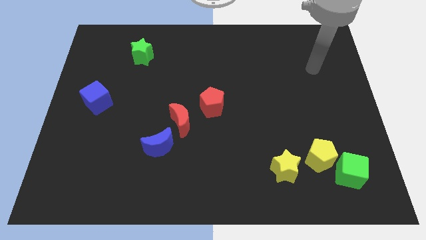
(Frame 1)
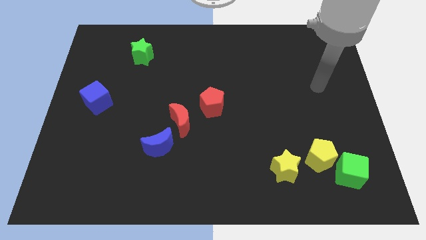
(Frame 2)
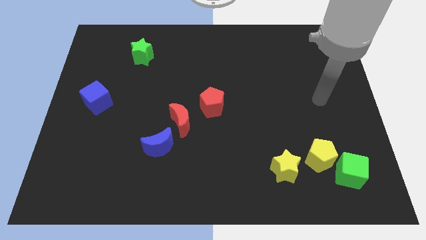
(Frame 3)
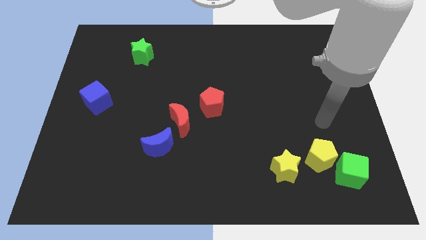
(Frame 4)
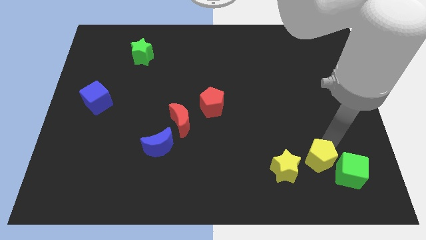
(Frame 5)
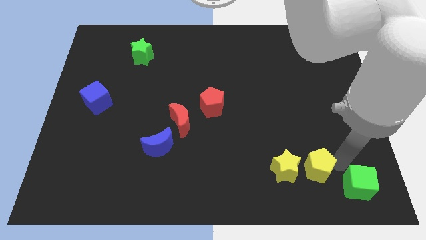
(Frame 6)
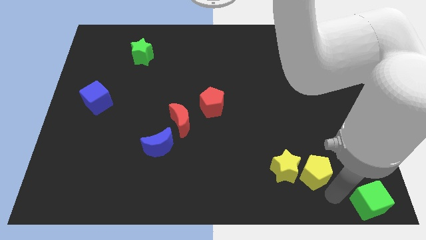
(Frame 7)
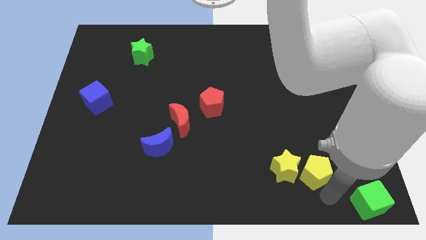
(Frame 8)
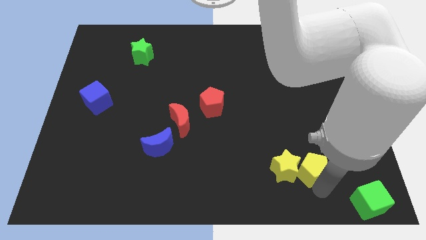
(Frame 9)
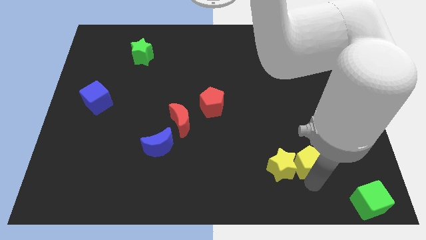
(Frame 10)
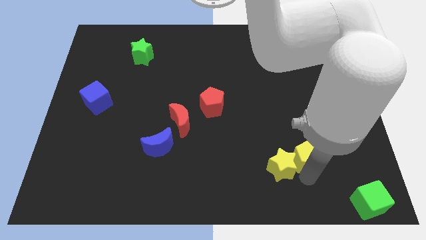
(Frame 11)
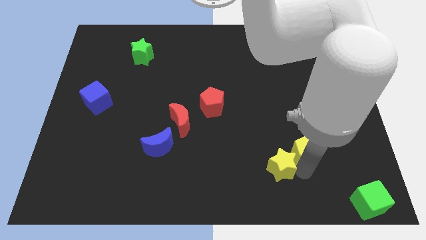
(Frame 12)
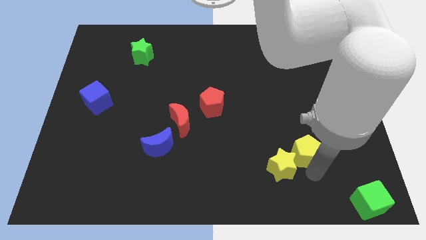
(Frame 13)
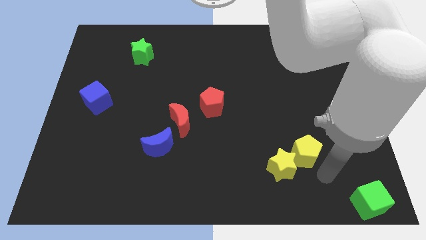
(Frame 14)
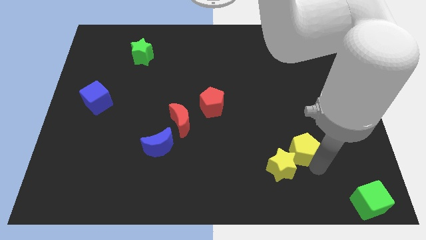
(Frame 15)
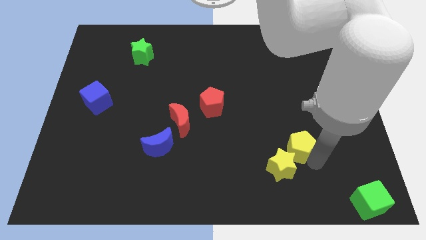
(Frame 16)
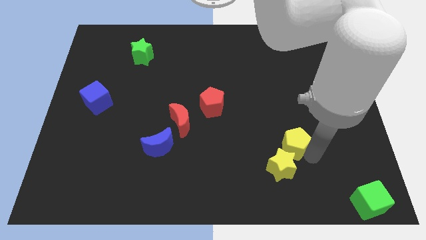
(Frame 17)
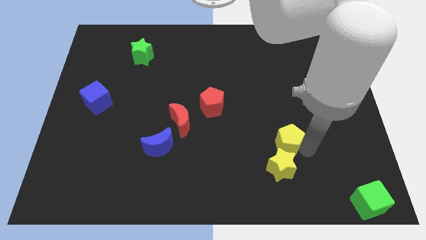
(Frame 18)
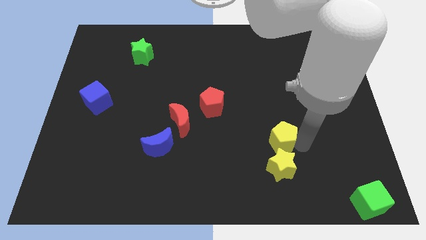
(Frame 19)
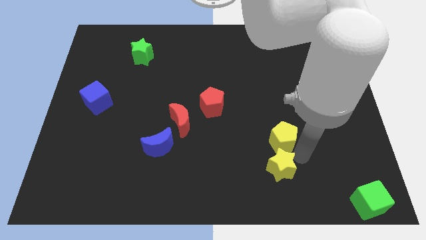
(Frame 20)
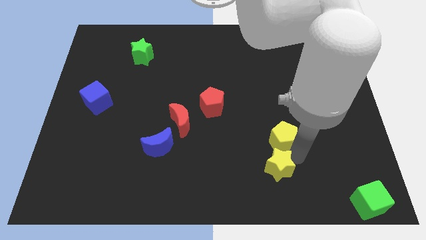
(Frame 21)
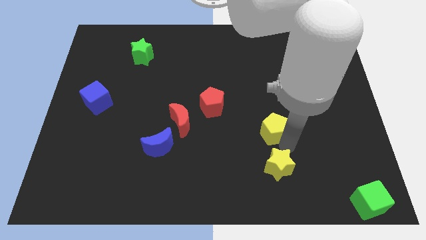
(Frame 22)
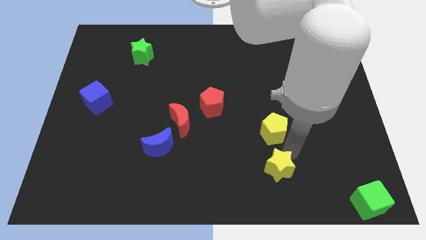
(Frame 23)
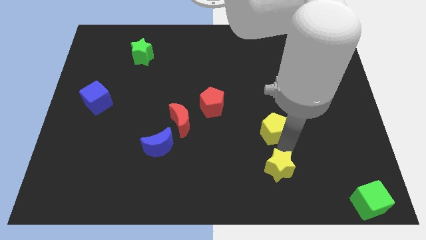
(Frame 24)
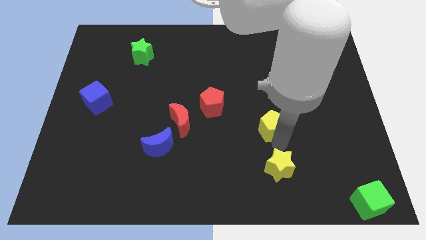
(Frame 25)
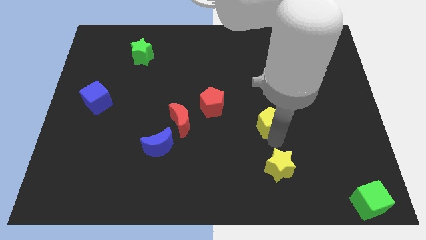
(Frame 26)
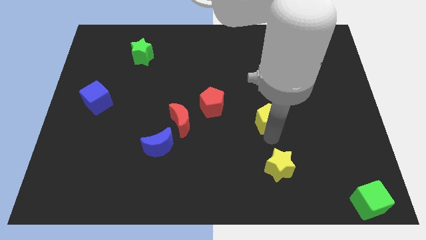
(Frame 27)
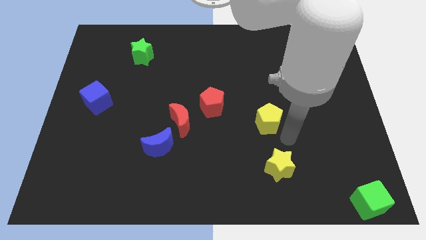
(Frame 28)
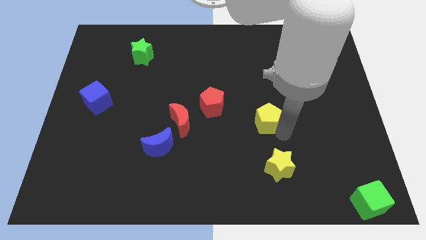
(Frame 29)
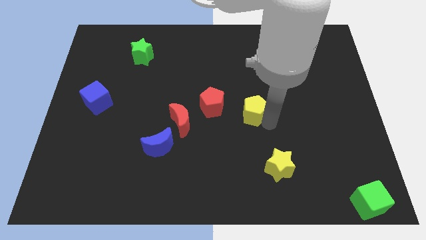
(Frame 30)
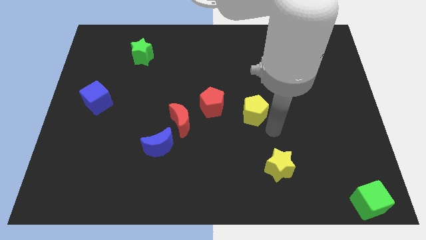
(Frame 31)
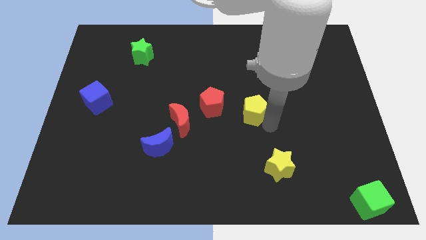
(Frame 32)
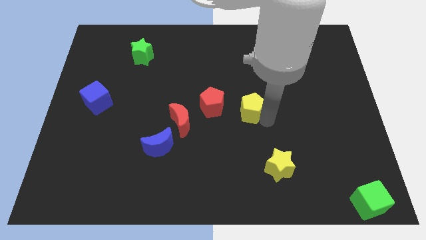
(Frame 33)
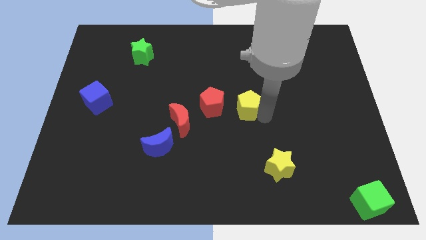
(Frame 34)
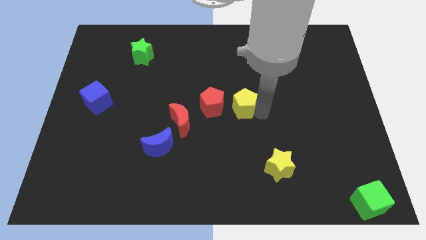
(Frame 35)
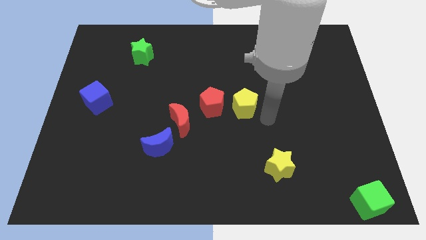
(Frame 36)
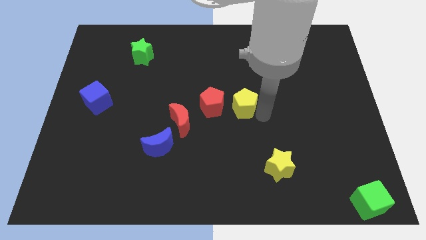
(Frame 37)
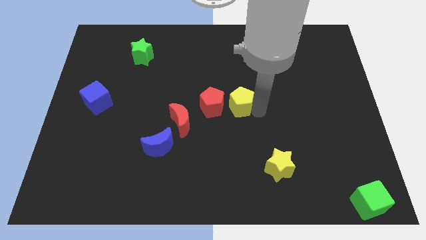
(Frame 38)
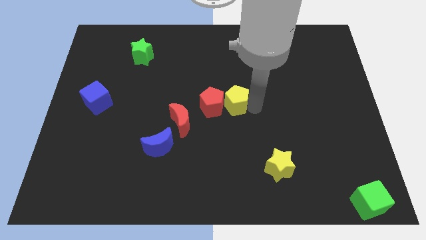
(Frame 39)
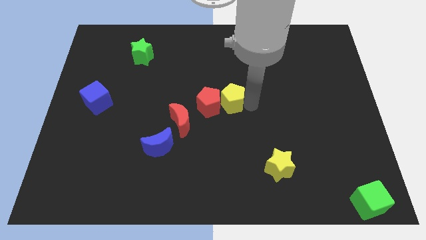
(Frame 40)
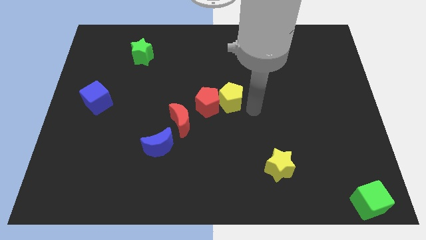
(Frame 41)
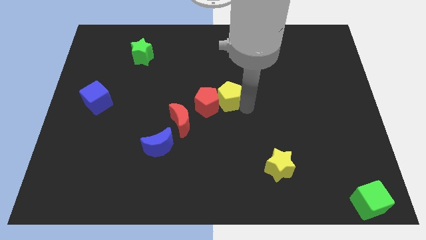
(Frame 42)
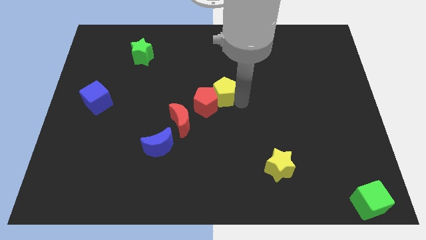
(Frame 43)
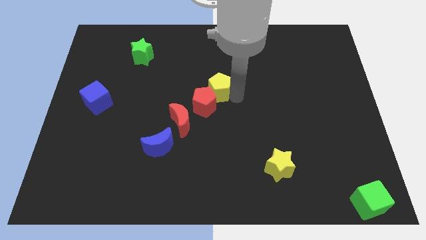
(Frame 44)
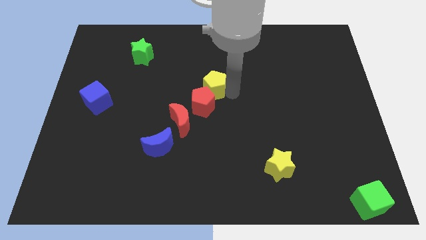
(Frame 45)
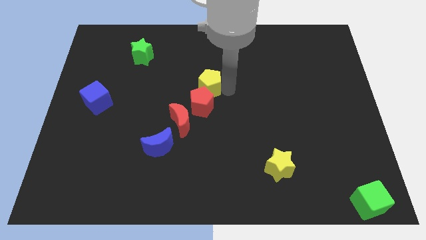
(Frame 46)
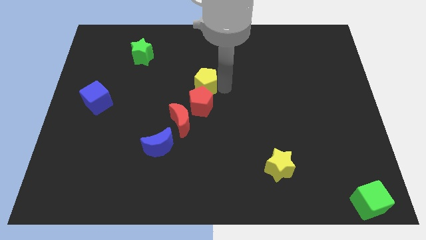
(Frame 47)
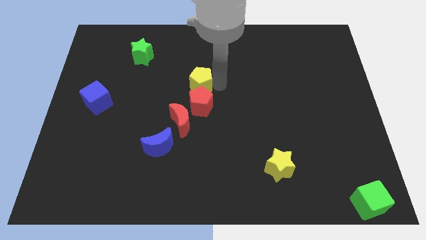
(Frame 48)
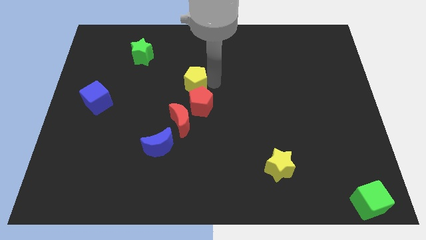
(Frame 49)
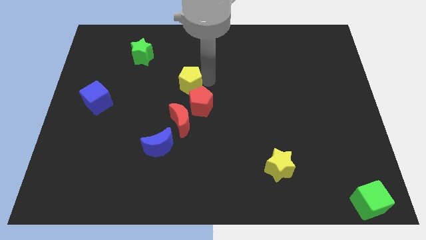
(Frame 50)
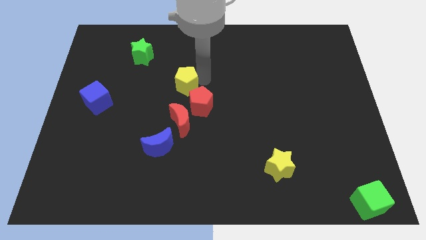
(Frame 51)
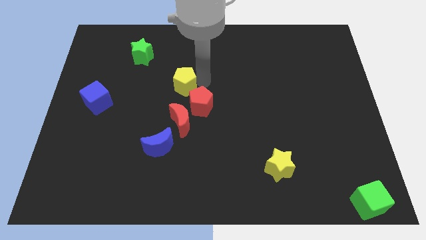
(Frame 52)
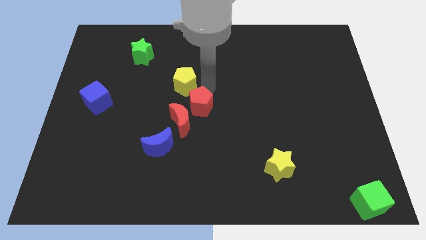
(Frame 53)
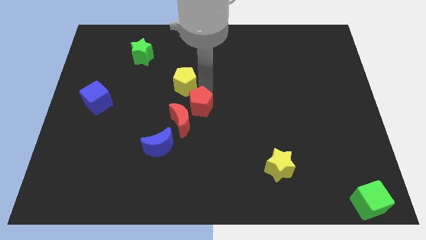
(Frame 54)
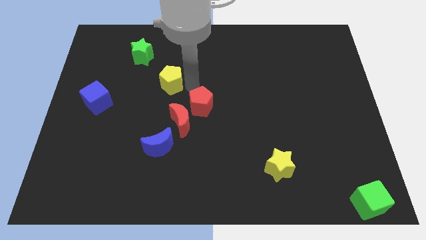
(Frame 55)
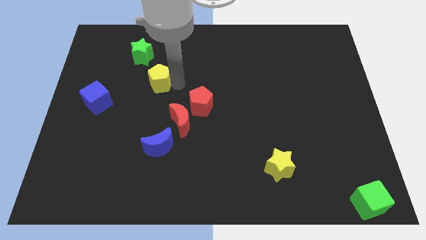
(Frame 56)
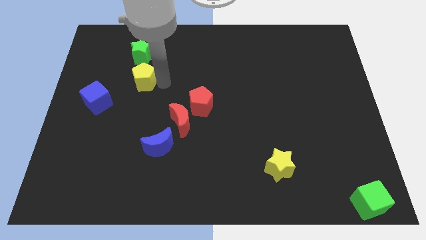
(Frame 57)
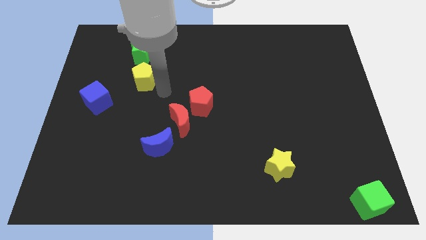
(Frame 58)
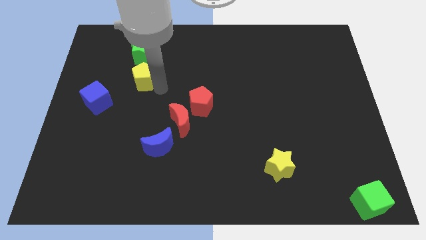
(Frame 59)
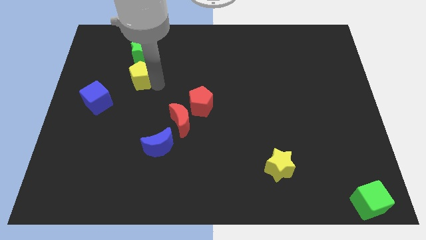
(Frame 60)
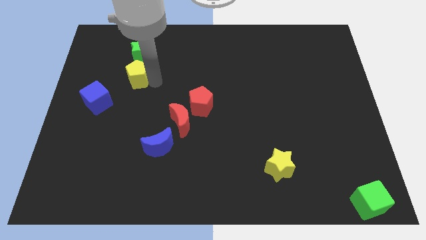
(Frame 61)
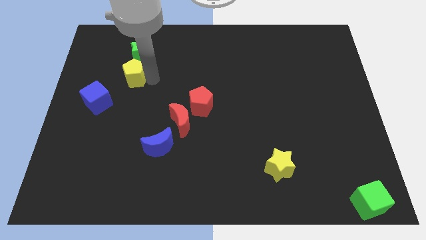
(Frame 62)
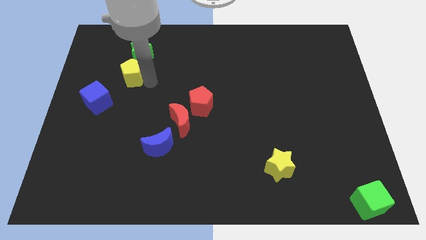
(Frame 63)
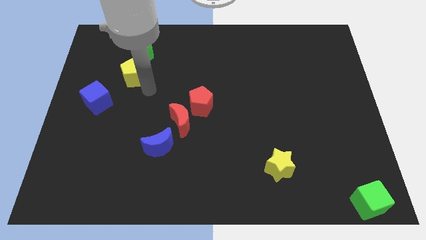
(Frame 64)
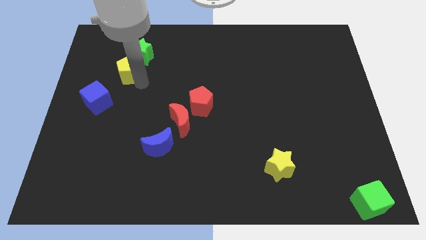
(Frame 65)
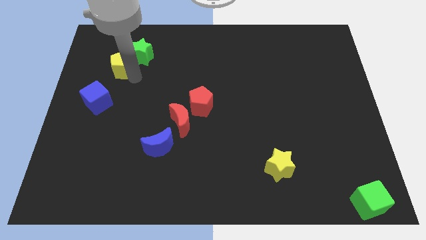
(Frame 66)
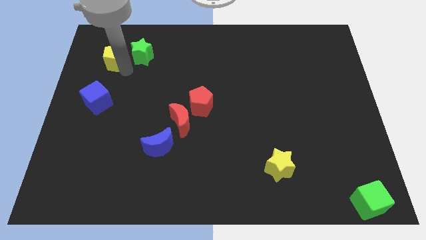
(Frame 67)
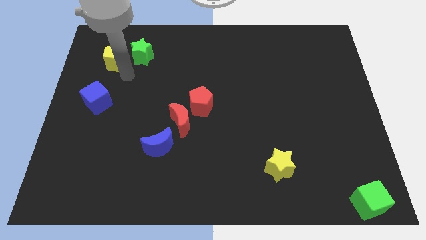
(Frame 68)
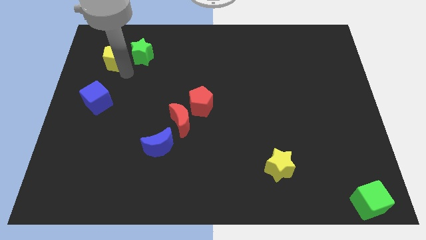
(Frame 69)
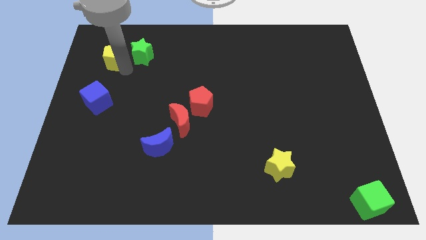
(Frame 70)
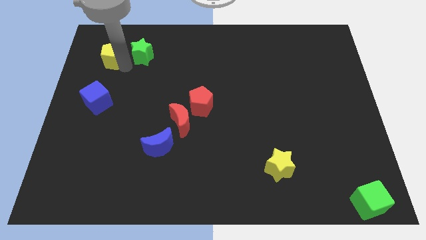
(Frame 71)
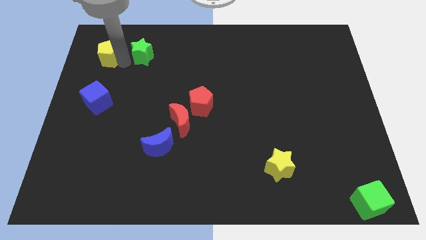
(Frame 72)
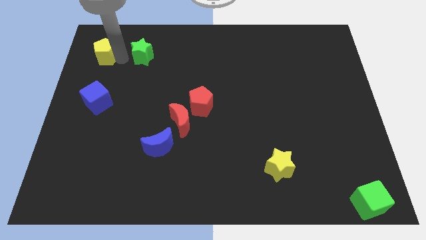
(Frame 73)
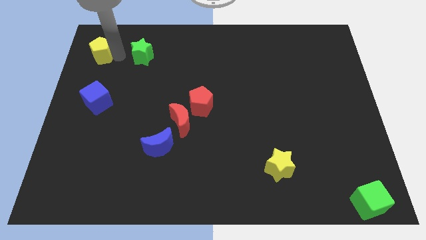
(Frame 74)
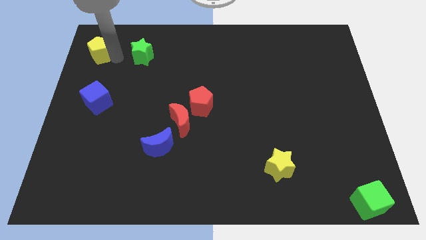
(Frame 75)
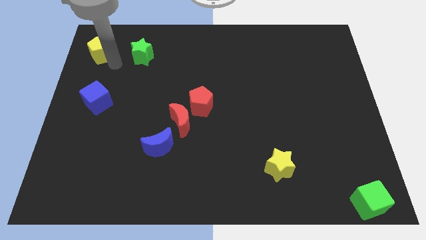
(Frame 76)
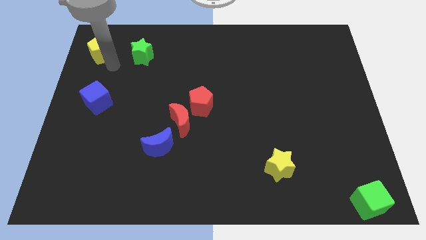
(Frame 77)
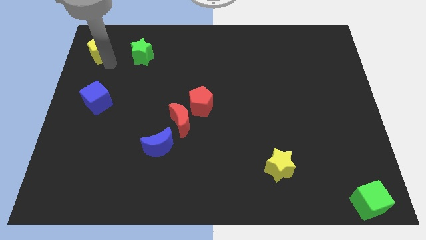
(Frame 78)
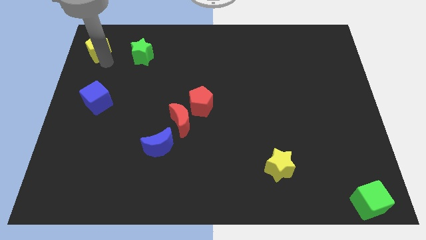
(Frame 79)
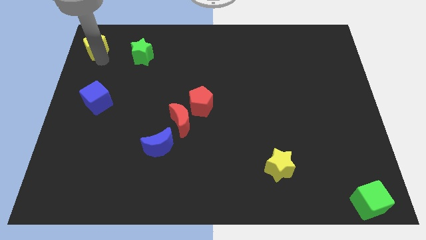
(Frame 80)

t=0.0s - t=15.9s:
move the yellow pentagon to the top left of the board
